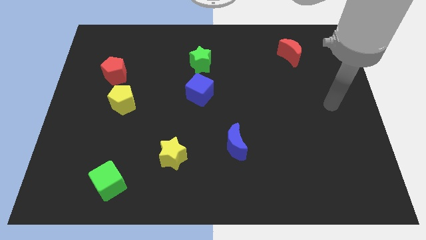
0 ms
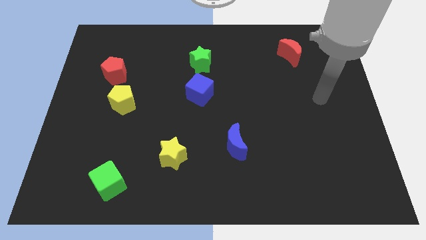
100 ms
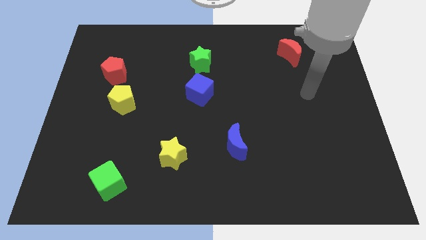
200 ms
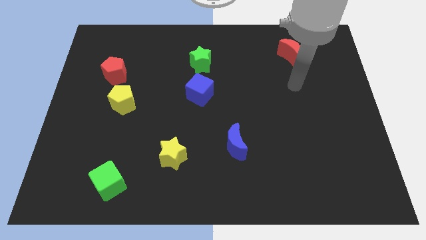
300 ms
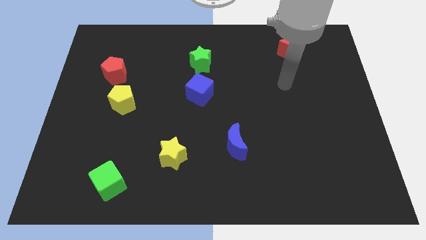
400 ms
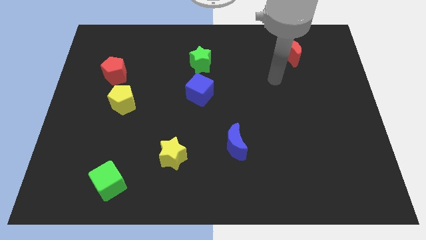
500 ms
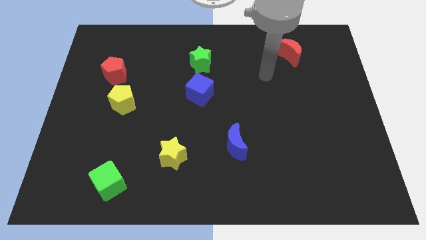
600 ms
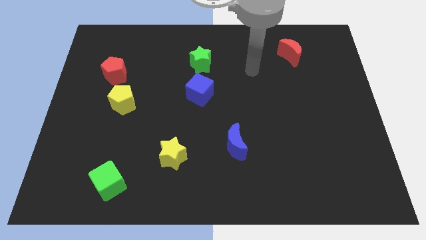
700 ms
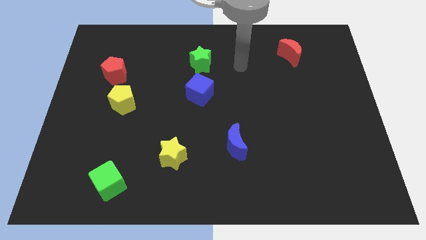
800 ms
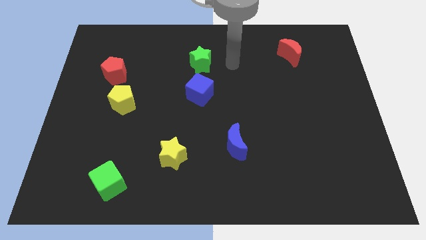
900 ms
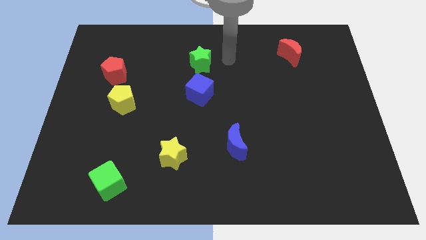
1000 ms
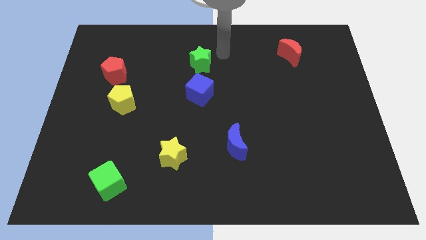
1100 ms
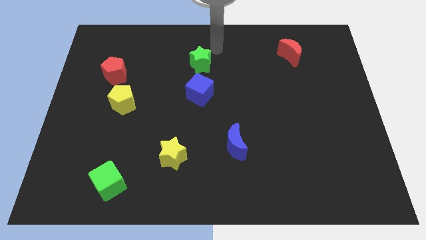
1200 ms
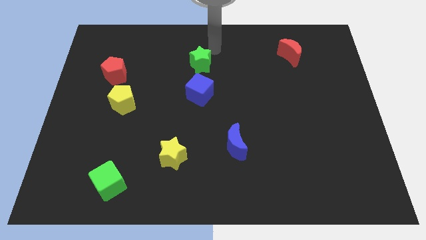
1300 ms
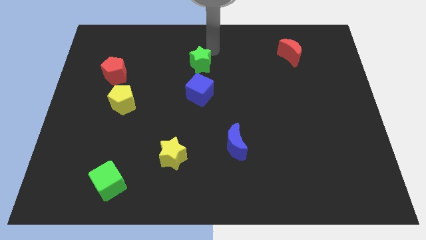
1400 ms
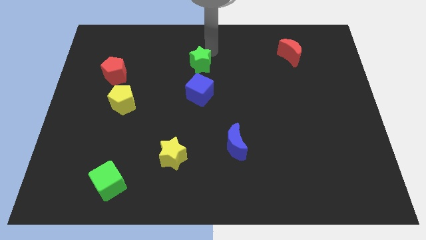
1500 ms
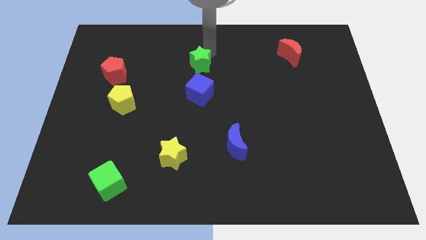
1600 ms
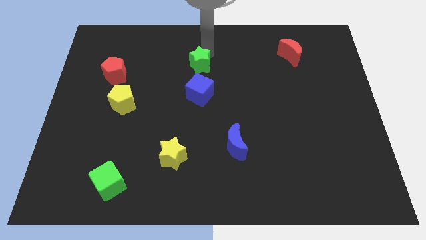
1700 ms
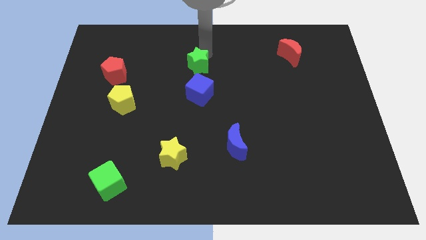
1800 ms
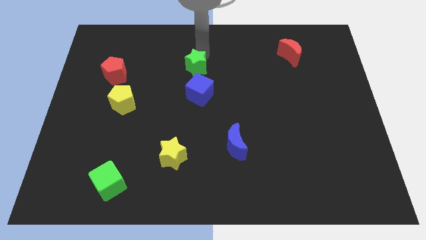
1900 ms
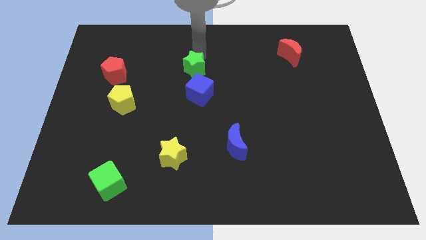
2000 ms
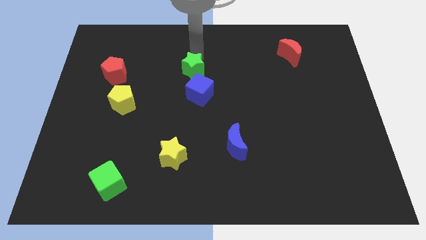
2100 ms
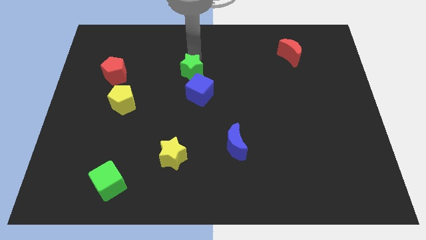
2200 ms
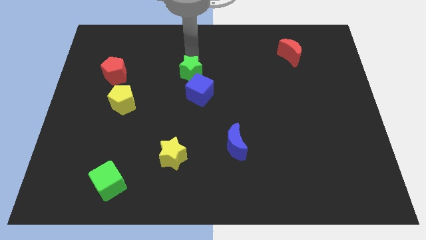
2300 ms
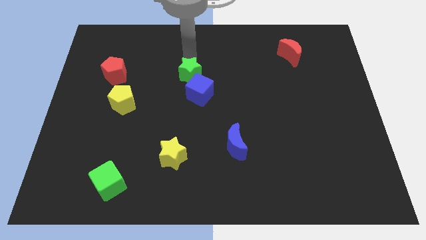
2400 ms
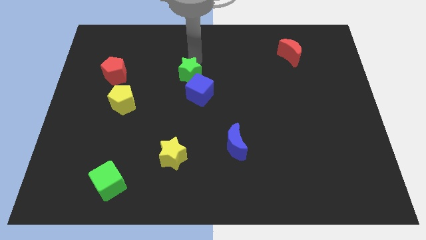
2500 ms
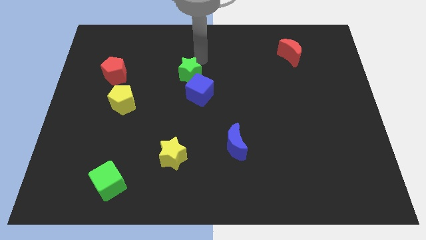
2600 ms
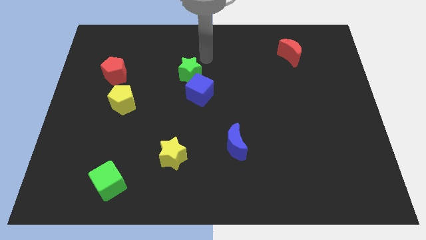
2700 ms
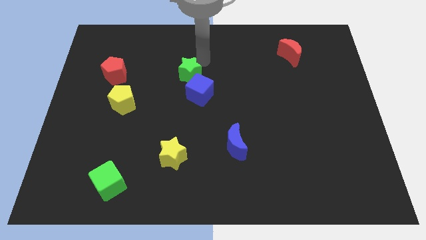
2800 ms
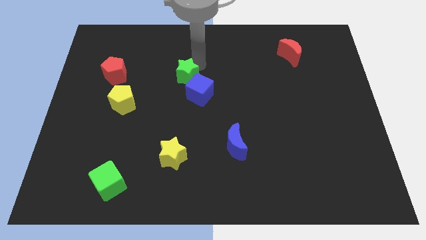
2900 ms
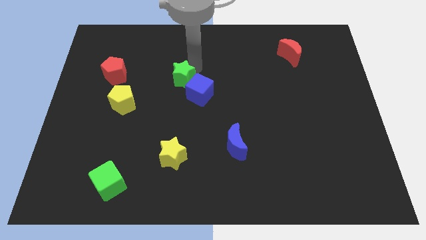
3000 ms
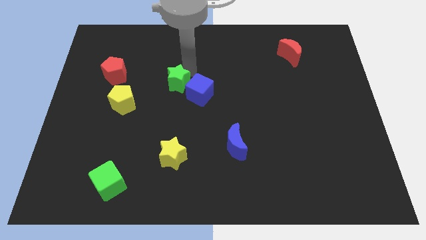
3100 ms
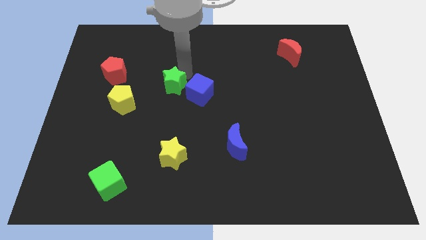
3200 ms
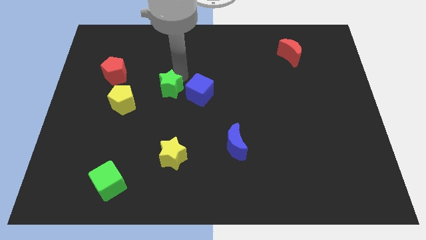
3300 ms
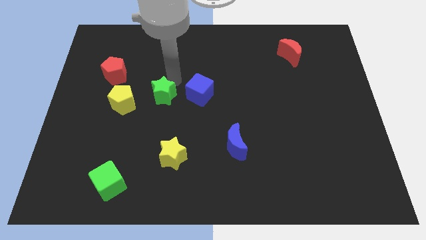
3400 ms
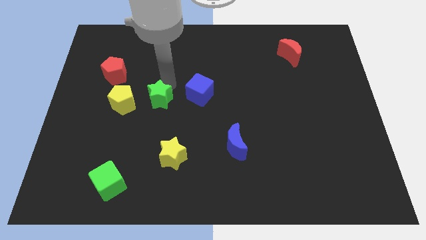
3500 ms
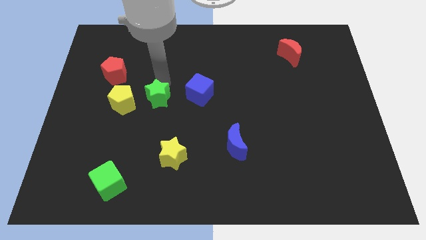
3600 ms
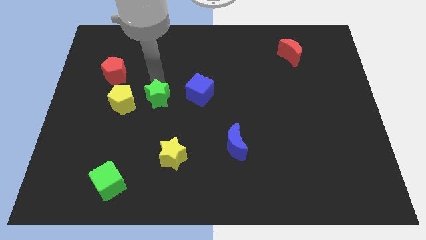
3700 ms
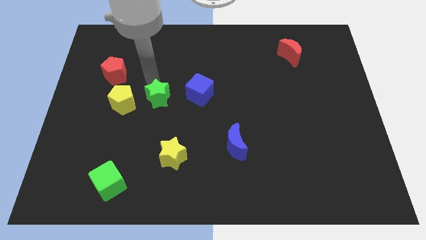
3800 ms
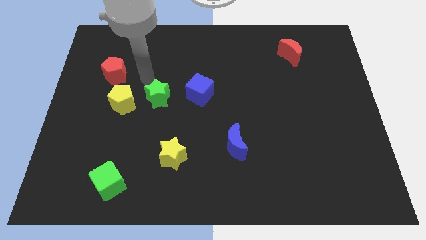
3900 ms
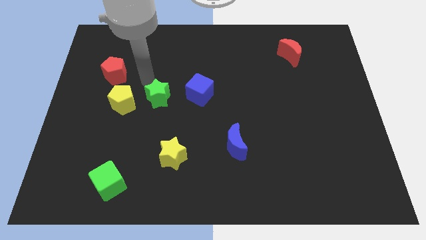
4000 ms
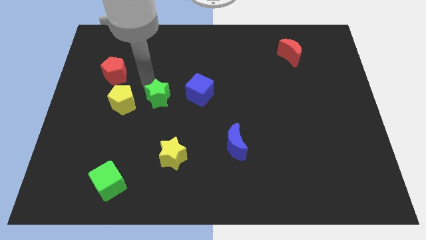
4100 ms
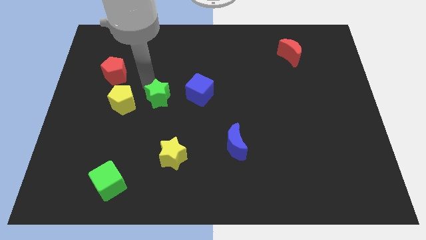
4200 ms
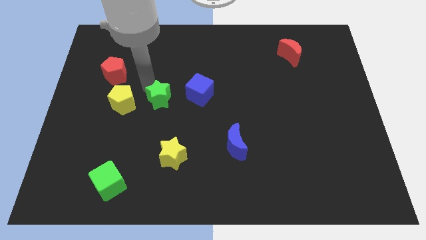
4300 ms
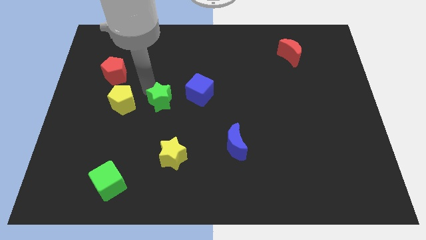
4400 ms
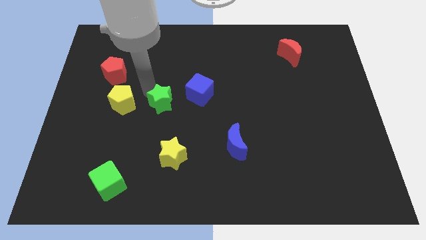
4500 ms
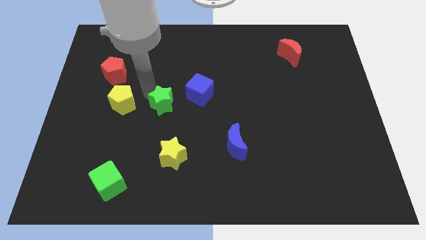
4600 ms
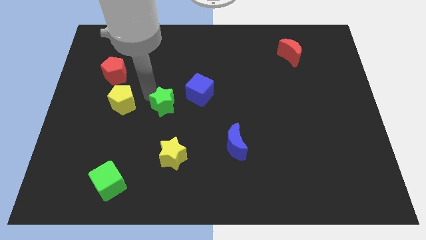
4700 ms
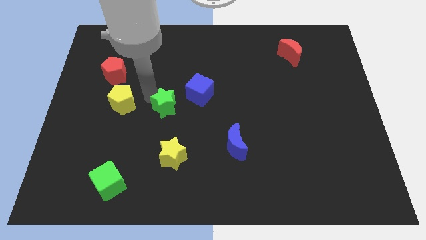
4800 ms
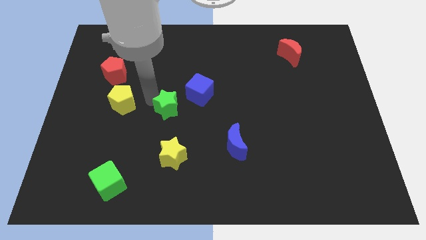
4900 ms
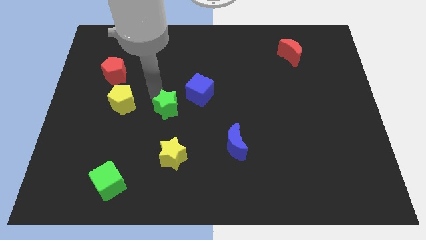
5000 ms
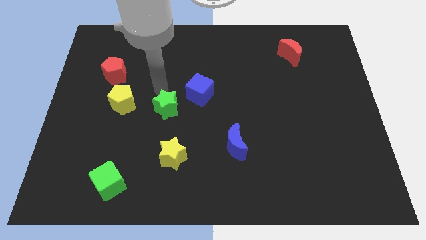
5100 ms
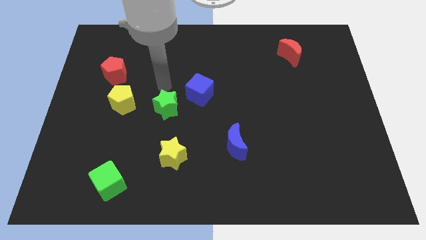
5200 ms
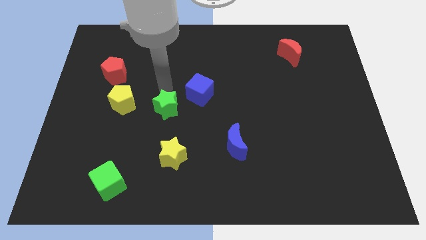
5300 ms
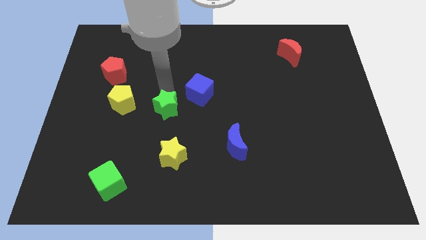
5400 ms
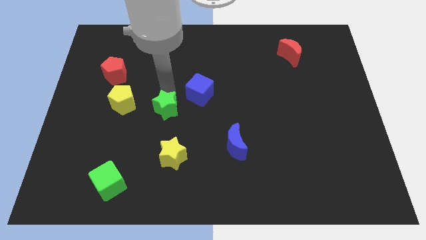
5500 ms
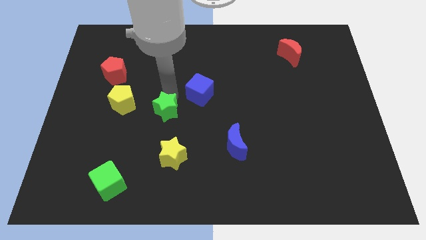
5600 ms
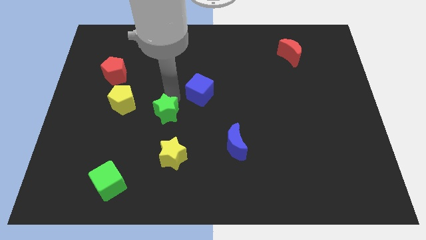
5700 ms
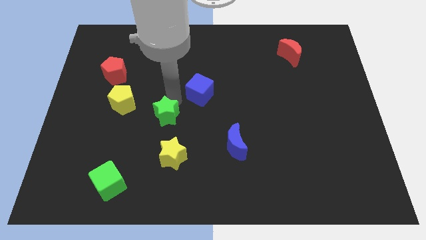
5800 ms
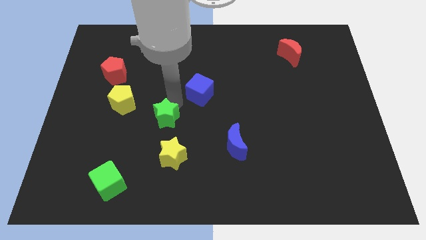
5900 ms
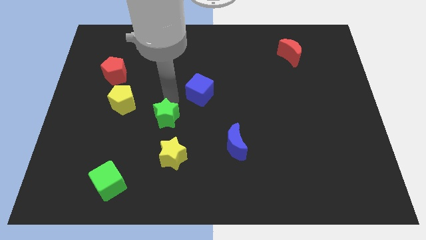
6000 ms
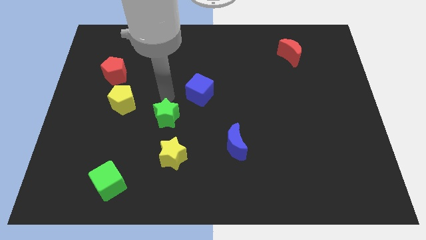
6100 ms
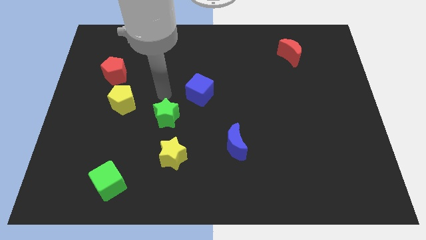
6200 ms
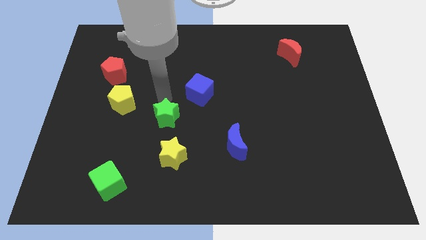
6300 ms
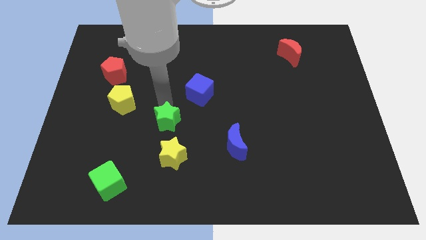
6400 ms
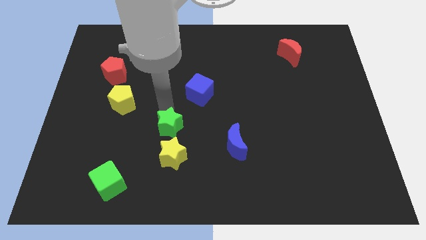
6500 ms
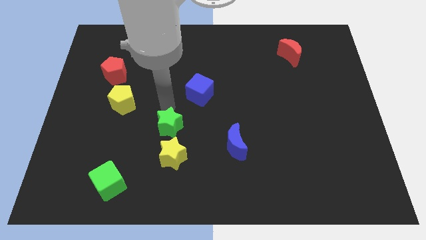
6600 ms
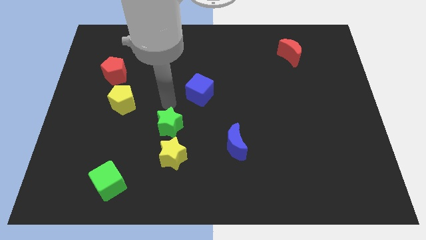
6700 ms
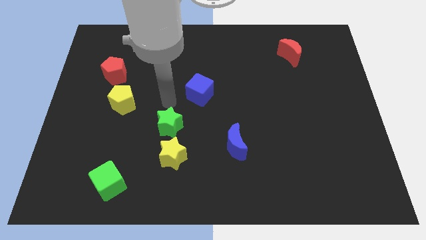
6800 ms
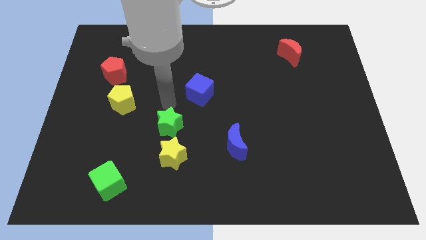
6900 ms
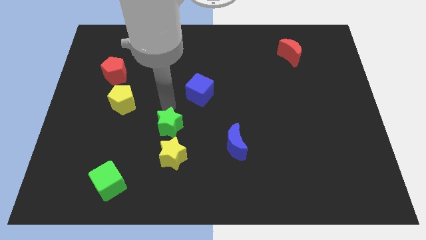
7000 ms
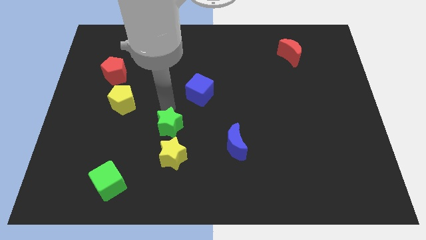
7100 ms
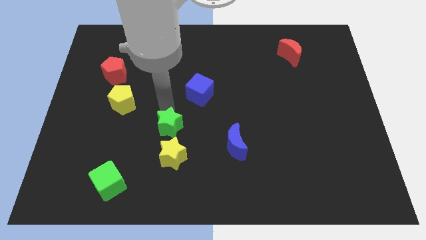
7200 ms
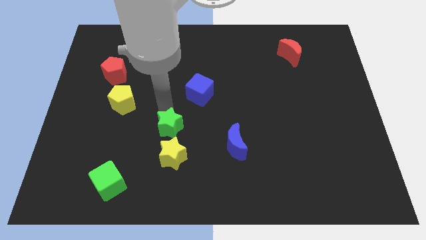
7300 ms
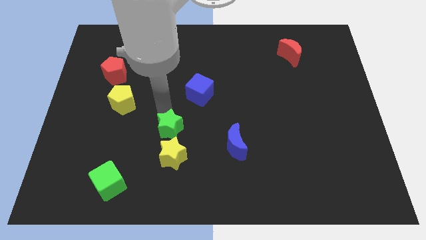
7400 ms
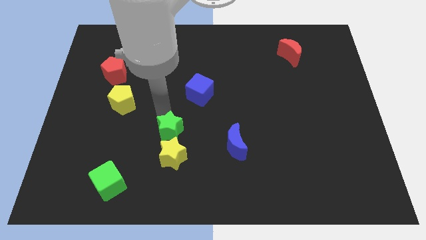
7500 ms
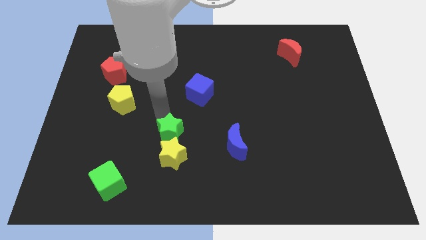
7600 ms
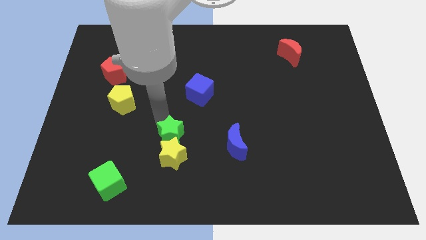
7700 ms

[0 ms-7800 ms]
push the green star towards the yellow star

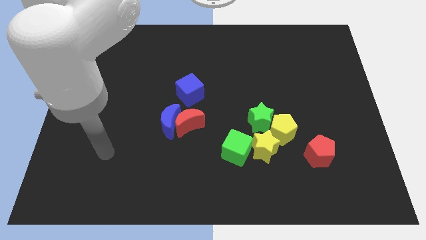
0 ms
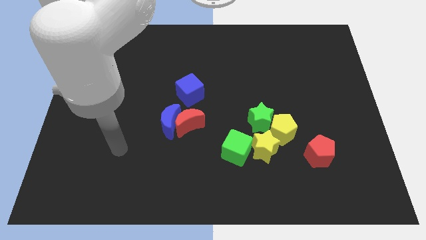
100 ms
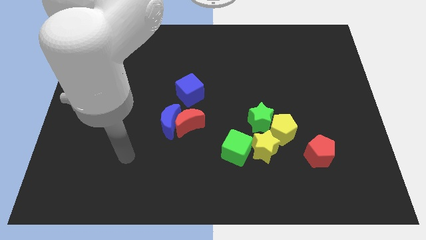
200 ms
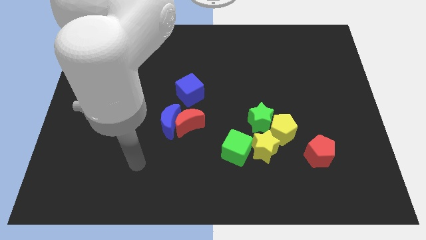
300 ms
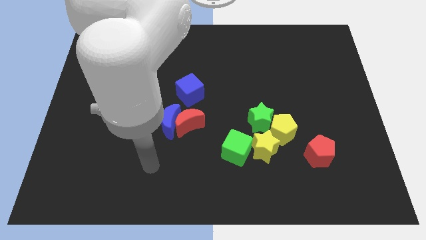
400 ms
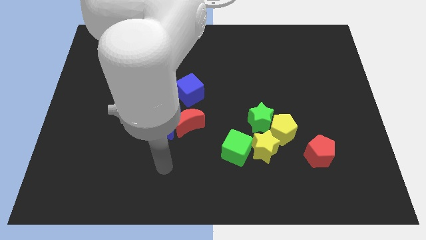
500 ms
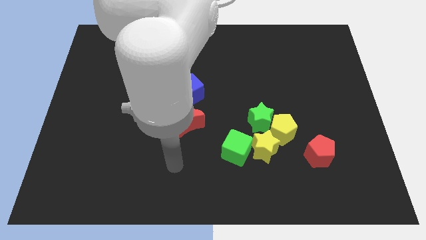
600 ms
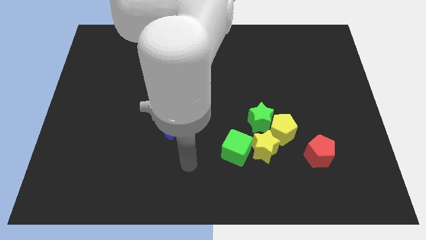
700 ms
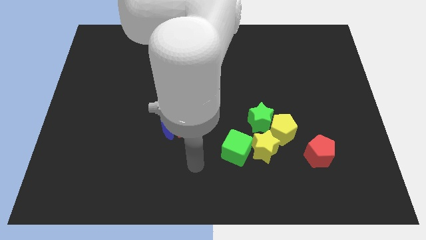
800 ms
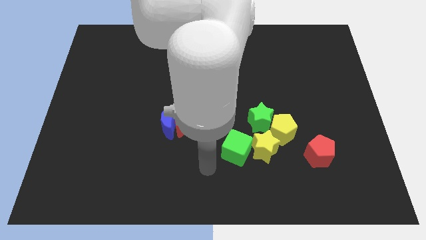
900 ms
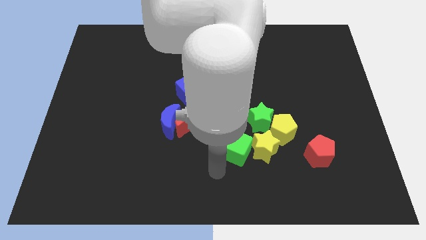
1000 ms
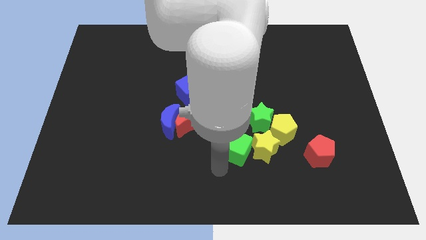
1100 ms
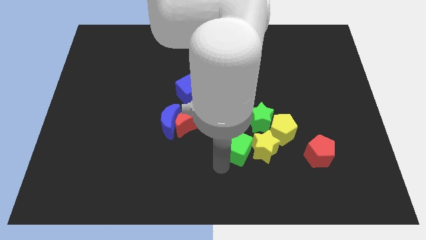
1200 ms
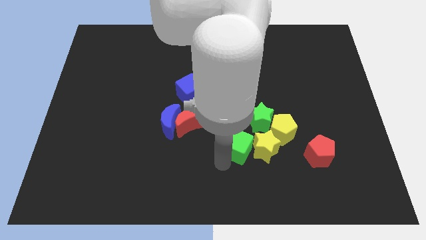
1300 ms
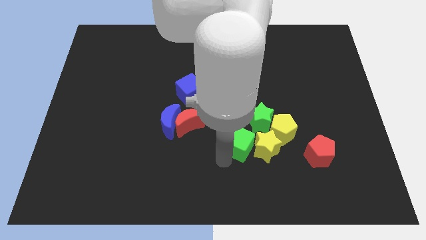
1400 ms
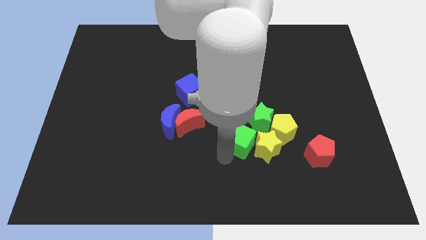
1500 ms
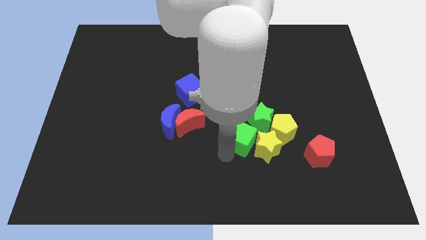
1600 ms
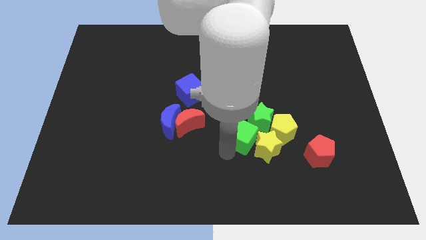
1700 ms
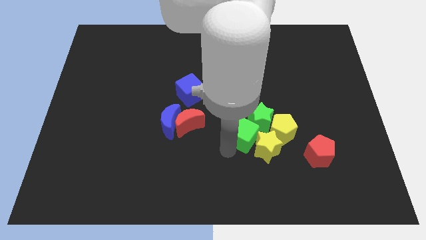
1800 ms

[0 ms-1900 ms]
slide the green cube to the green star
